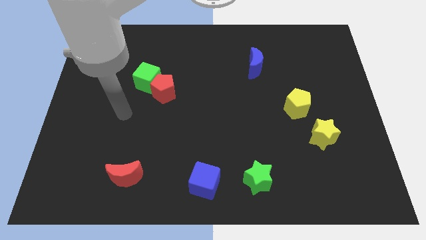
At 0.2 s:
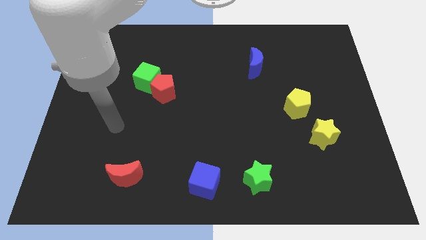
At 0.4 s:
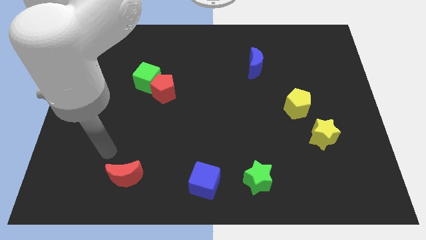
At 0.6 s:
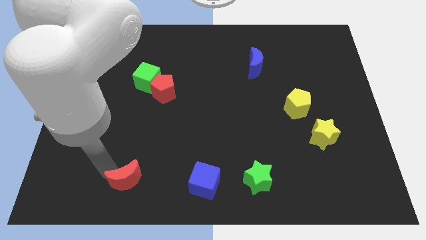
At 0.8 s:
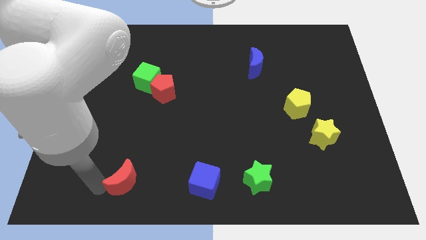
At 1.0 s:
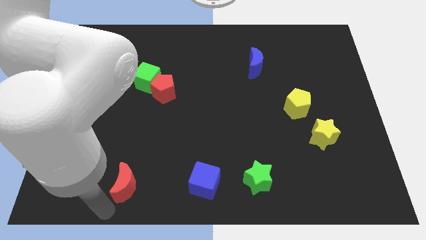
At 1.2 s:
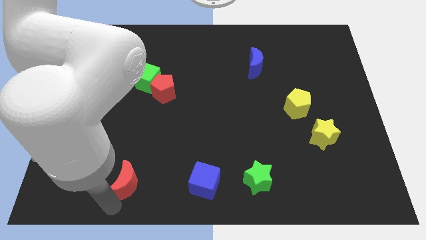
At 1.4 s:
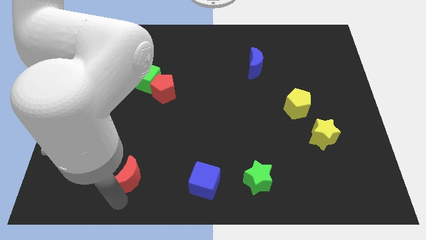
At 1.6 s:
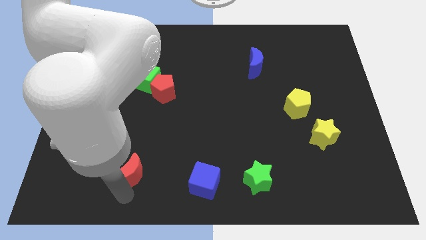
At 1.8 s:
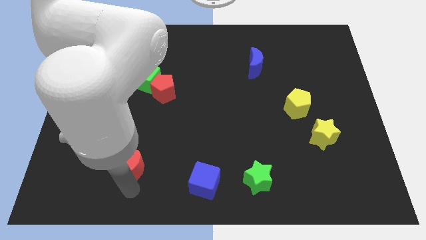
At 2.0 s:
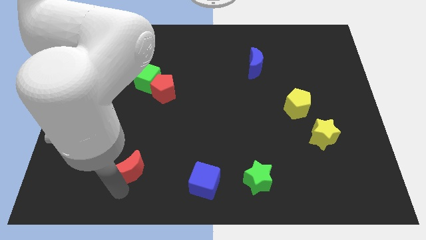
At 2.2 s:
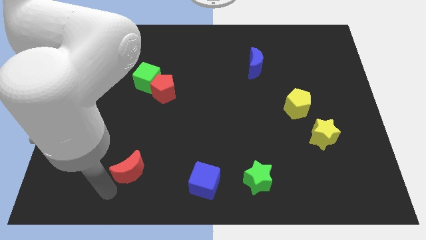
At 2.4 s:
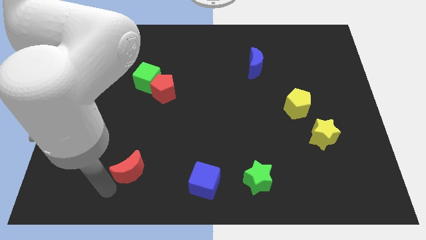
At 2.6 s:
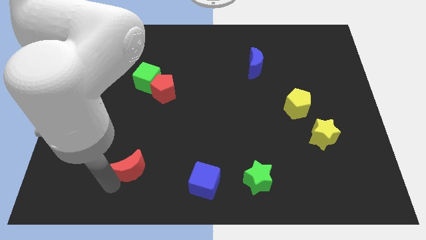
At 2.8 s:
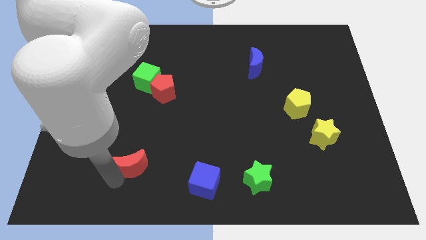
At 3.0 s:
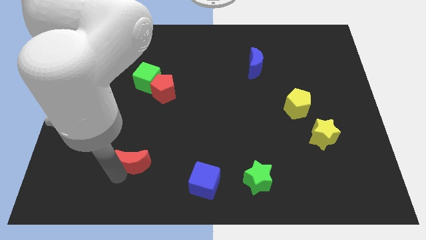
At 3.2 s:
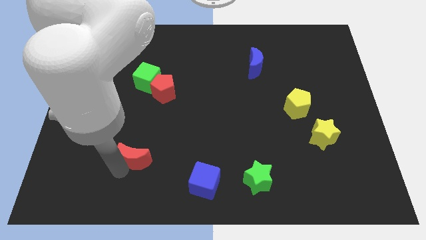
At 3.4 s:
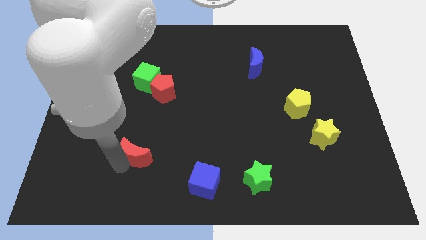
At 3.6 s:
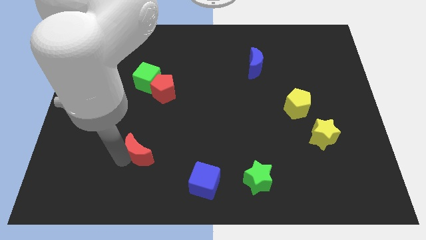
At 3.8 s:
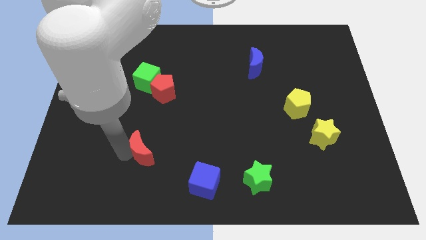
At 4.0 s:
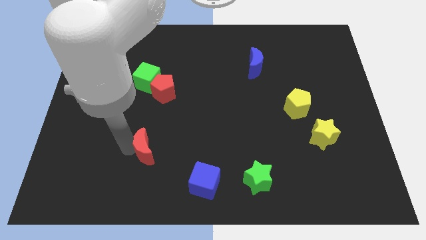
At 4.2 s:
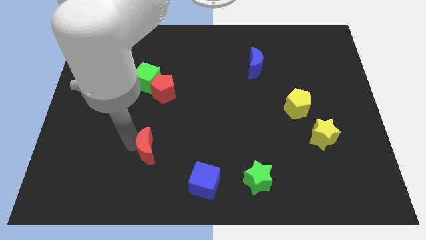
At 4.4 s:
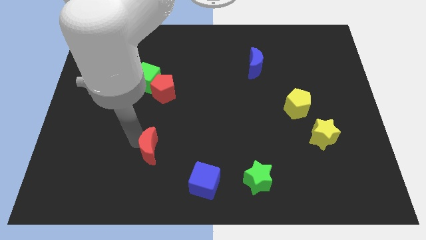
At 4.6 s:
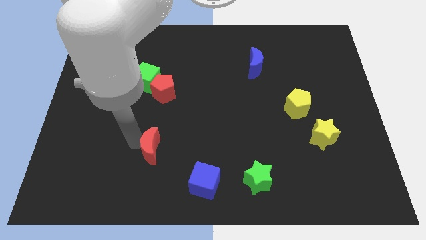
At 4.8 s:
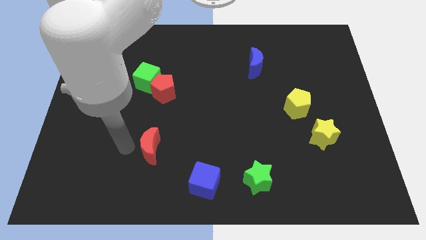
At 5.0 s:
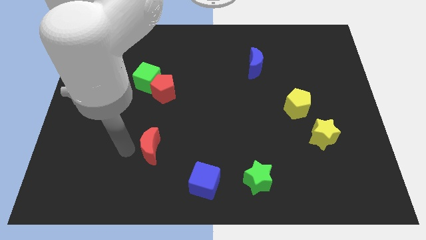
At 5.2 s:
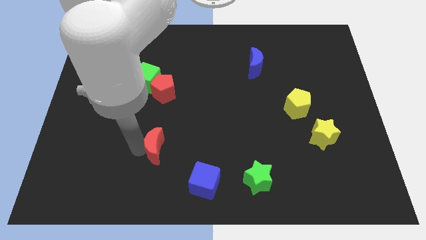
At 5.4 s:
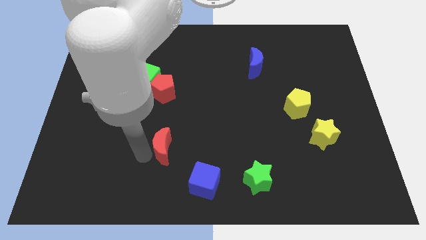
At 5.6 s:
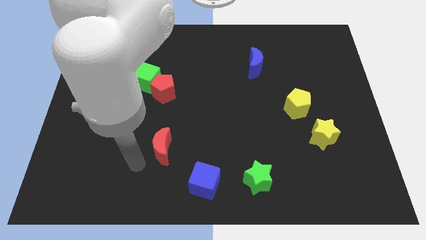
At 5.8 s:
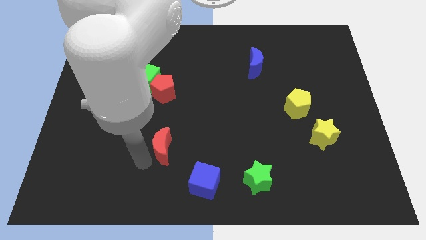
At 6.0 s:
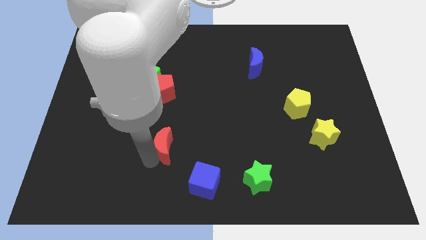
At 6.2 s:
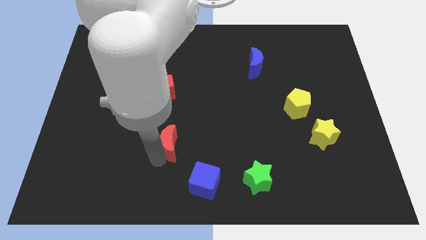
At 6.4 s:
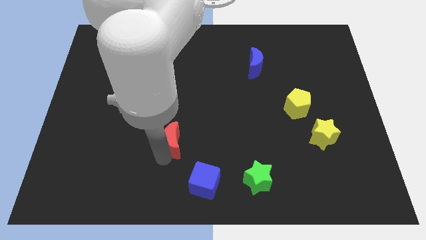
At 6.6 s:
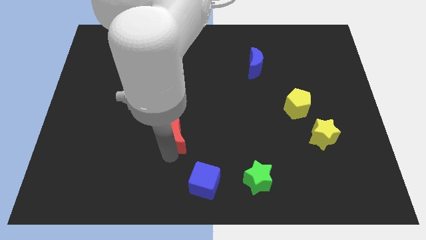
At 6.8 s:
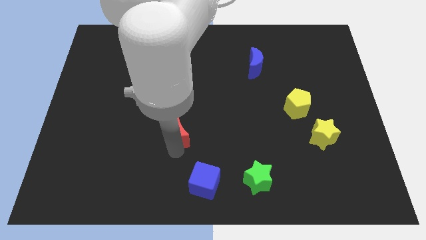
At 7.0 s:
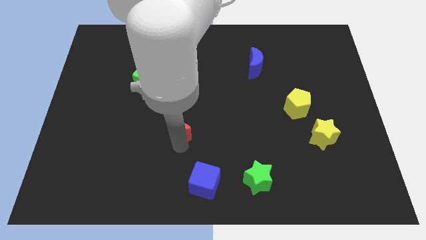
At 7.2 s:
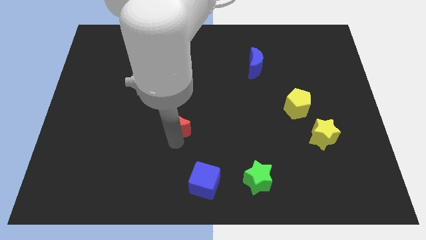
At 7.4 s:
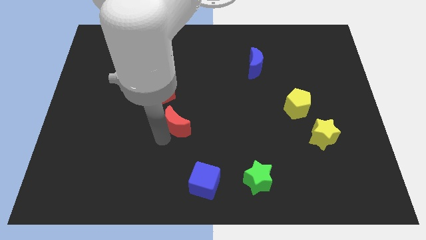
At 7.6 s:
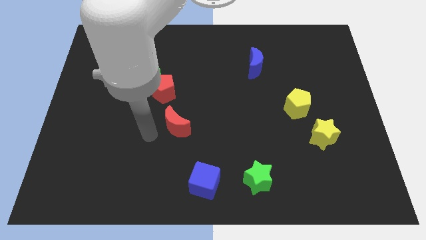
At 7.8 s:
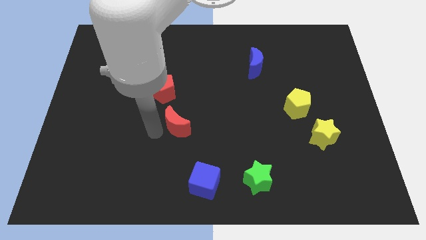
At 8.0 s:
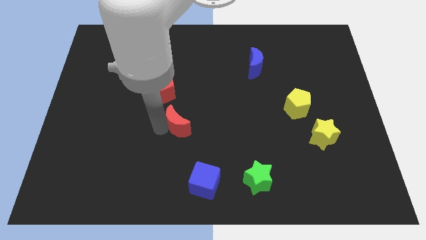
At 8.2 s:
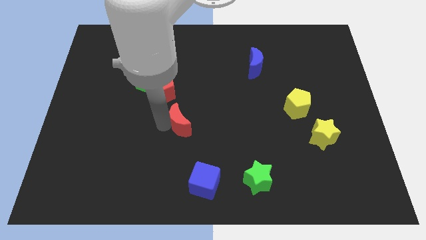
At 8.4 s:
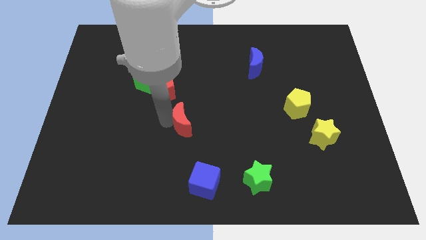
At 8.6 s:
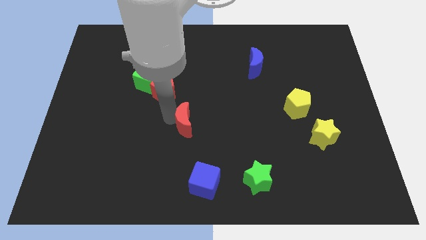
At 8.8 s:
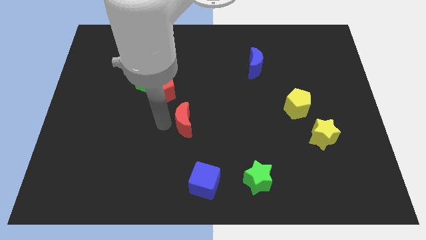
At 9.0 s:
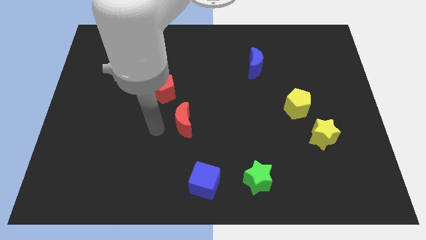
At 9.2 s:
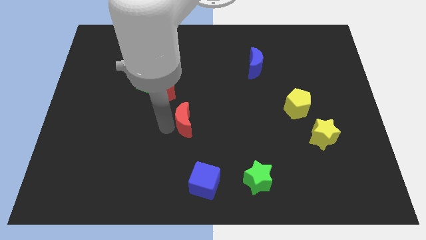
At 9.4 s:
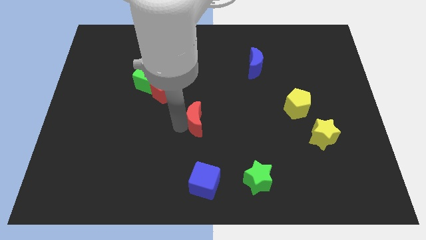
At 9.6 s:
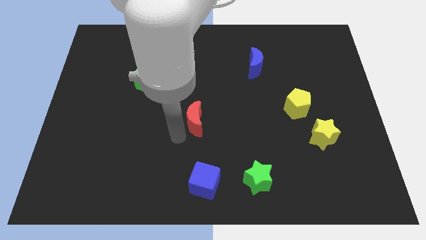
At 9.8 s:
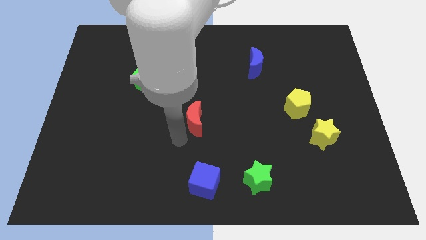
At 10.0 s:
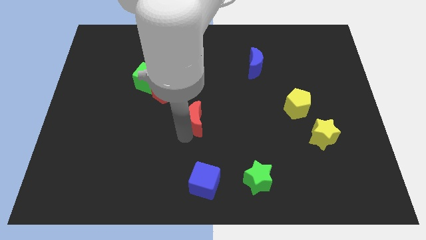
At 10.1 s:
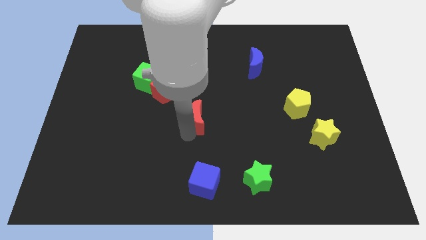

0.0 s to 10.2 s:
push the red moon diagonally upwards and to the right

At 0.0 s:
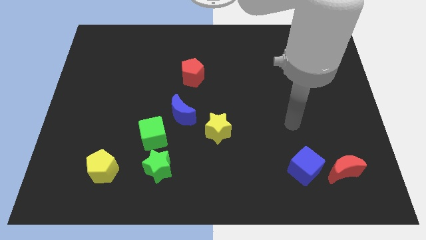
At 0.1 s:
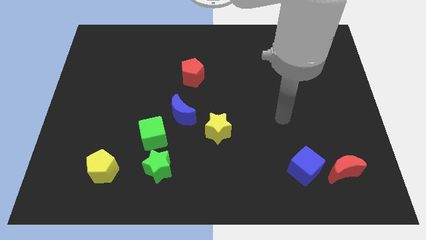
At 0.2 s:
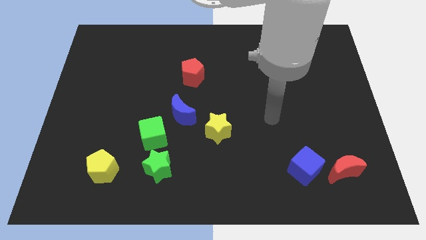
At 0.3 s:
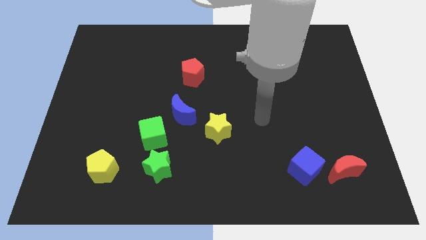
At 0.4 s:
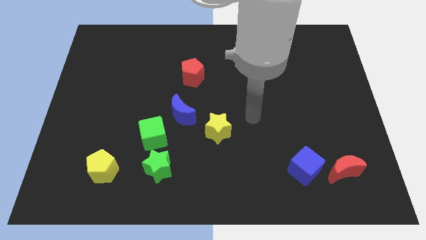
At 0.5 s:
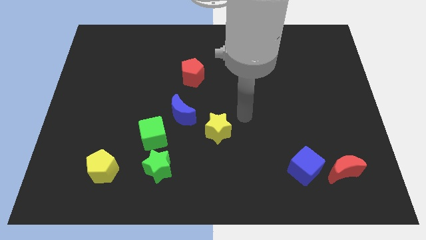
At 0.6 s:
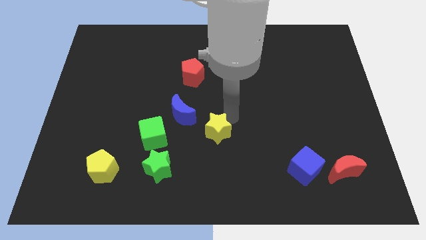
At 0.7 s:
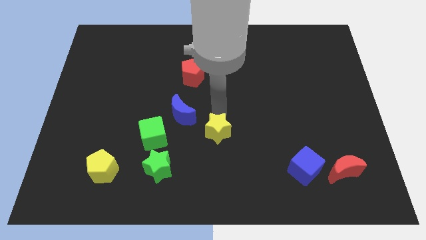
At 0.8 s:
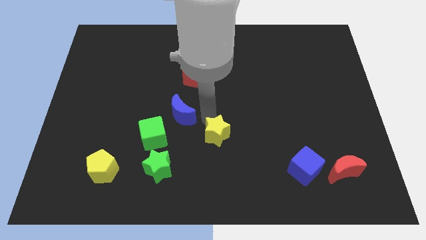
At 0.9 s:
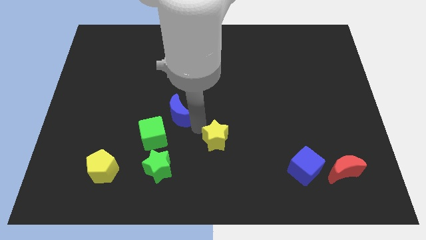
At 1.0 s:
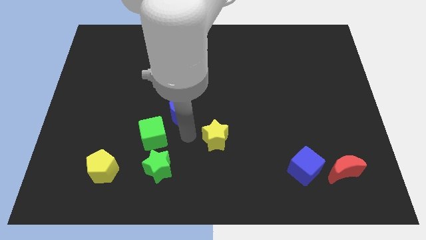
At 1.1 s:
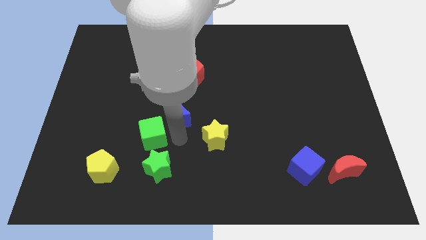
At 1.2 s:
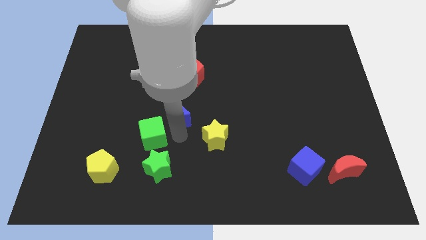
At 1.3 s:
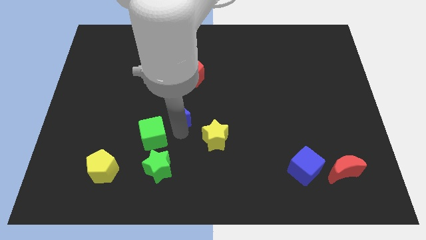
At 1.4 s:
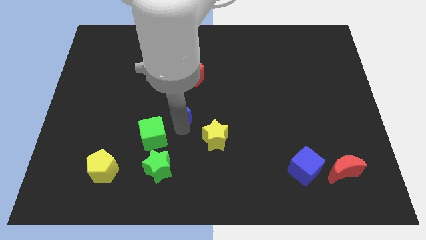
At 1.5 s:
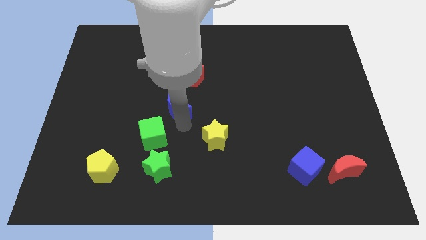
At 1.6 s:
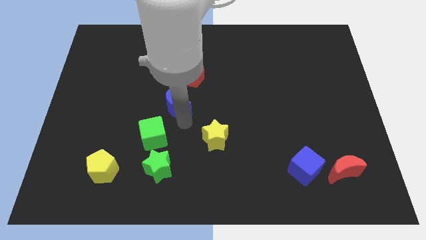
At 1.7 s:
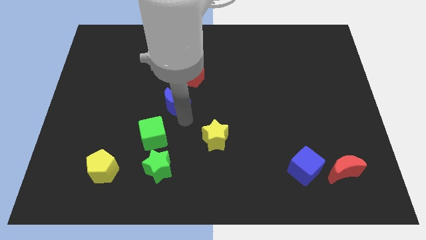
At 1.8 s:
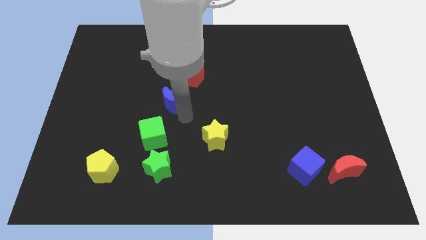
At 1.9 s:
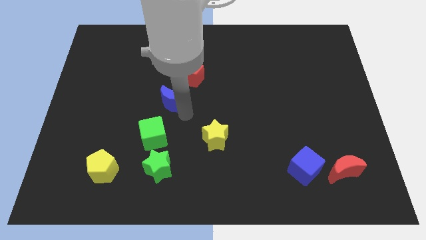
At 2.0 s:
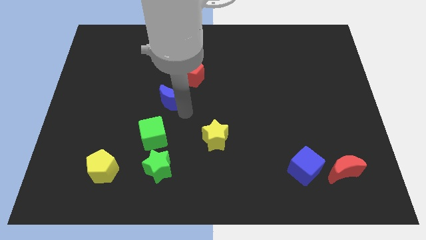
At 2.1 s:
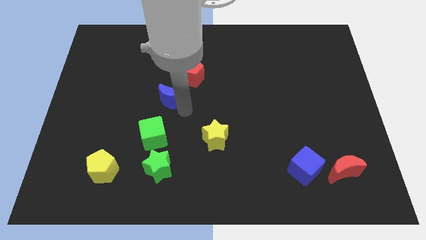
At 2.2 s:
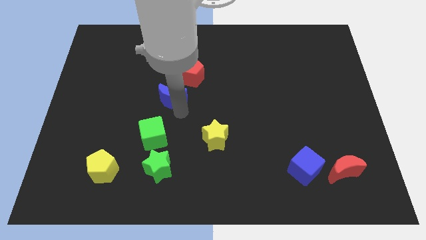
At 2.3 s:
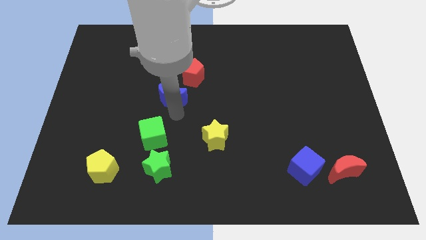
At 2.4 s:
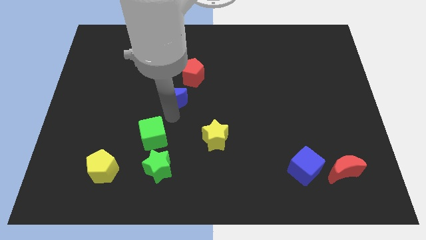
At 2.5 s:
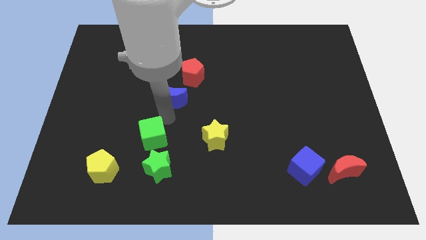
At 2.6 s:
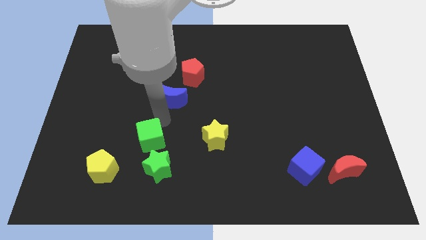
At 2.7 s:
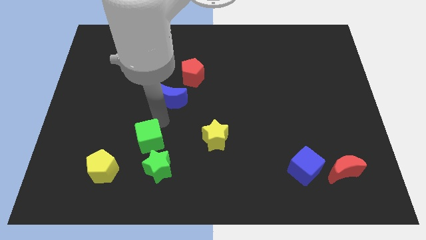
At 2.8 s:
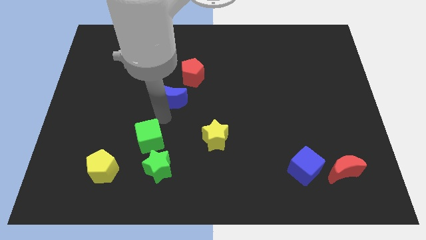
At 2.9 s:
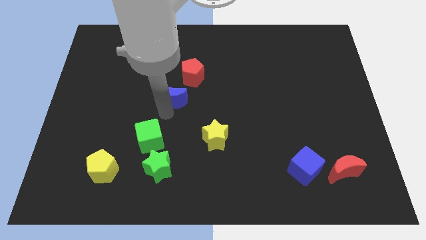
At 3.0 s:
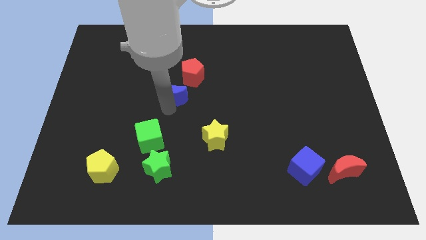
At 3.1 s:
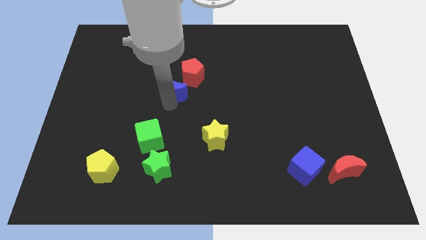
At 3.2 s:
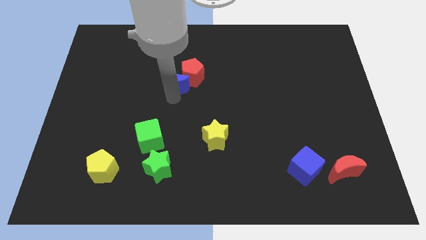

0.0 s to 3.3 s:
slightly slide the blue moon upwards
